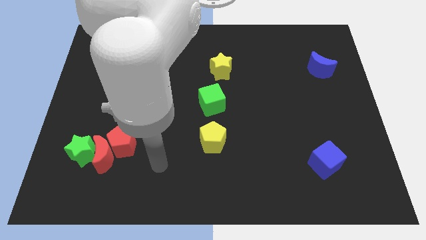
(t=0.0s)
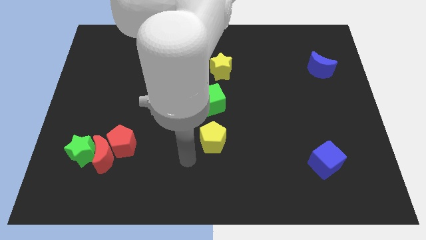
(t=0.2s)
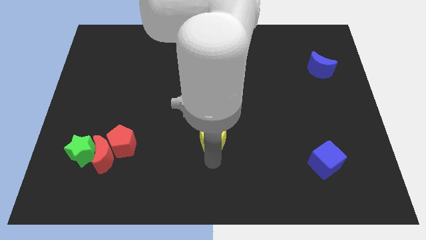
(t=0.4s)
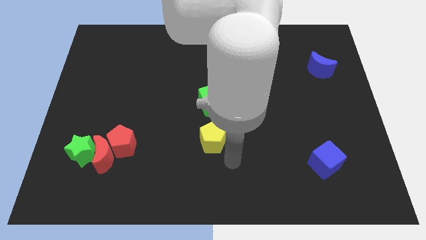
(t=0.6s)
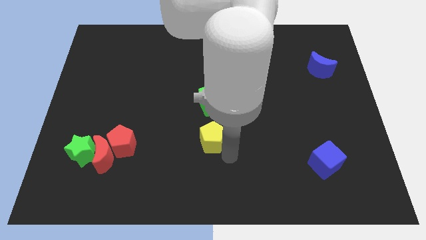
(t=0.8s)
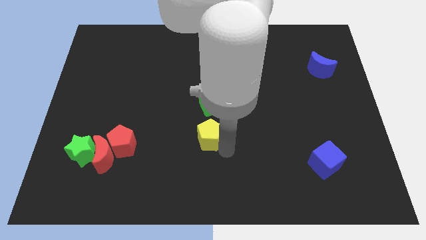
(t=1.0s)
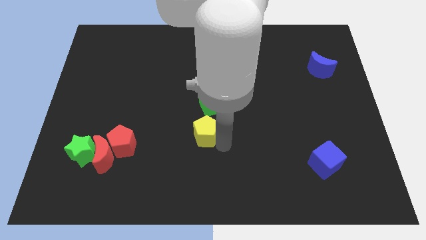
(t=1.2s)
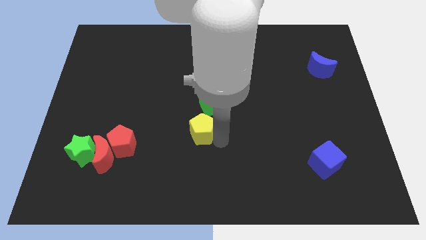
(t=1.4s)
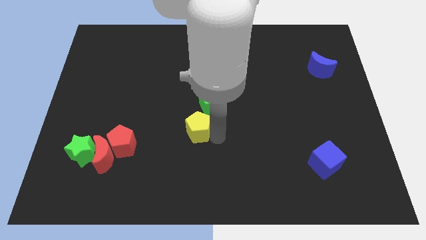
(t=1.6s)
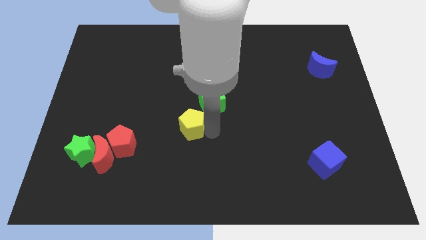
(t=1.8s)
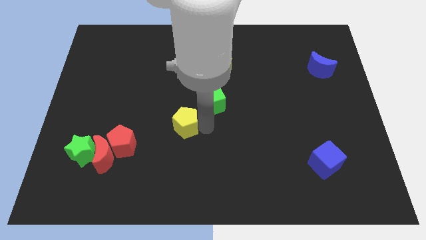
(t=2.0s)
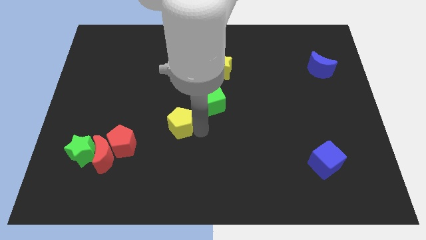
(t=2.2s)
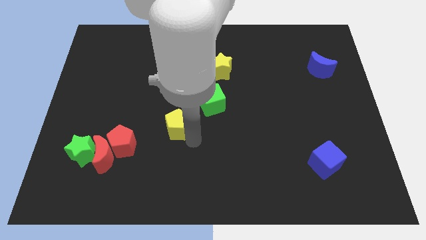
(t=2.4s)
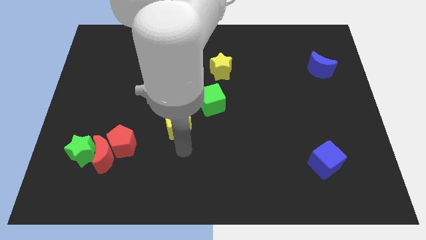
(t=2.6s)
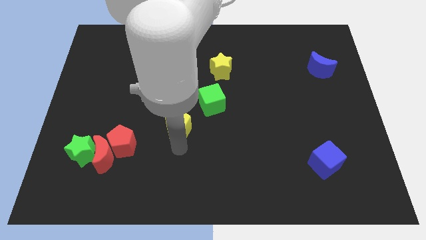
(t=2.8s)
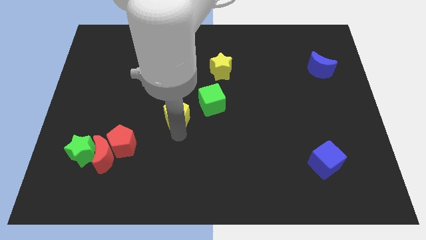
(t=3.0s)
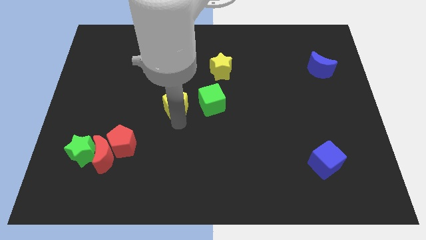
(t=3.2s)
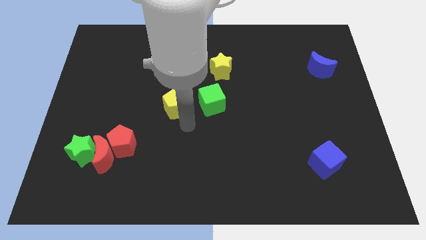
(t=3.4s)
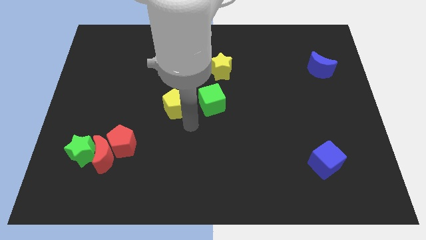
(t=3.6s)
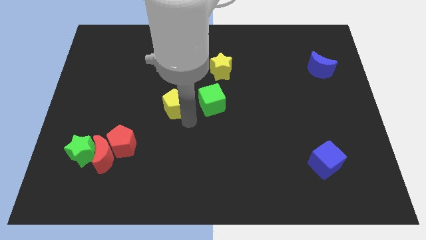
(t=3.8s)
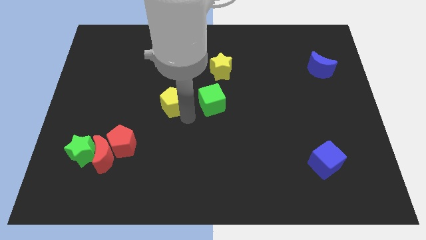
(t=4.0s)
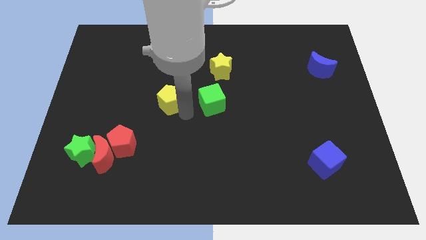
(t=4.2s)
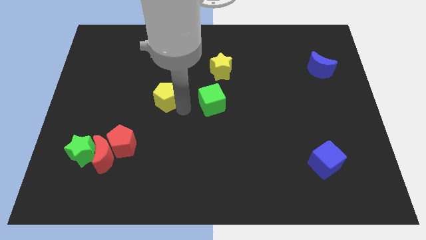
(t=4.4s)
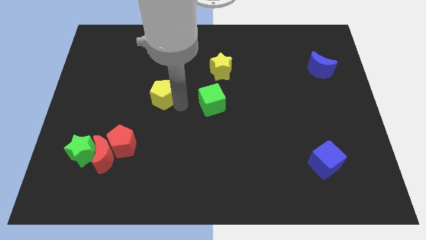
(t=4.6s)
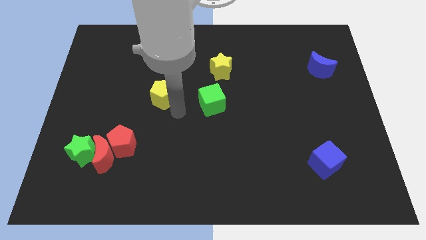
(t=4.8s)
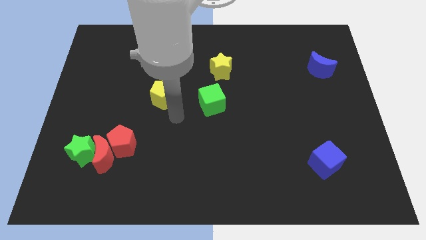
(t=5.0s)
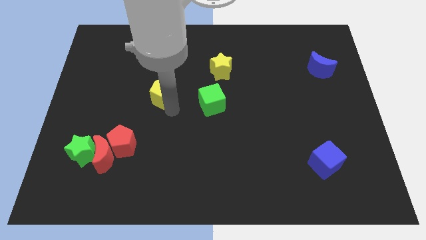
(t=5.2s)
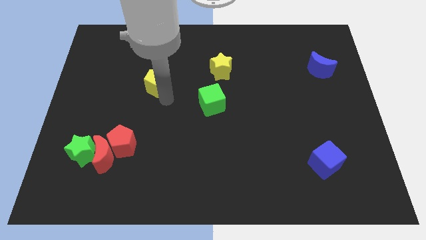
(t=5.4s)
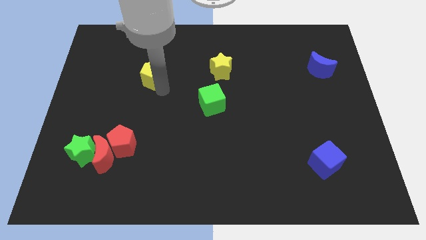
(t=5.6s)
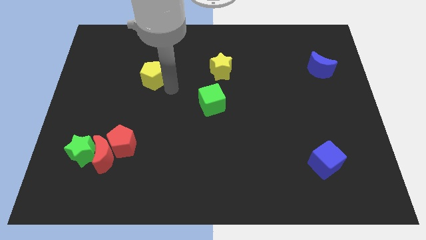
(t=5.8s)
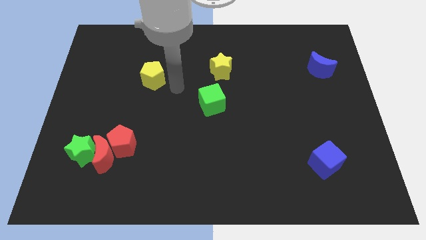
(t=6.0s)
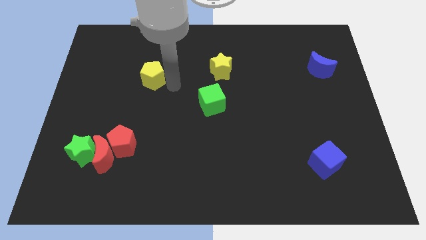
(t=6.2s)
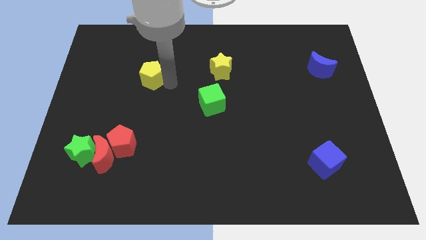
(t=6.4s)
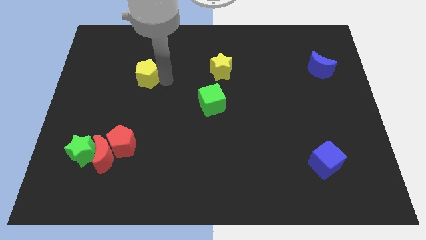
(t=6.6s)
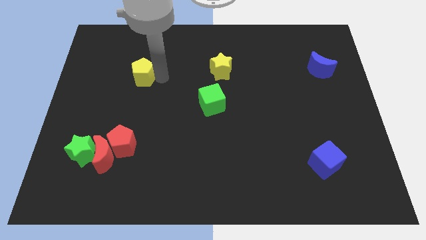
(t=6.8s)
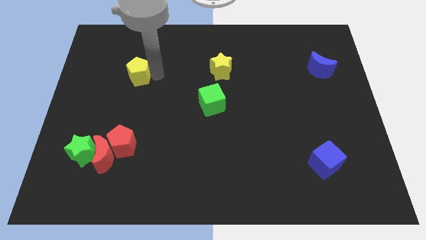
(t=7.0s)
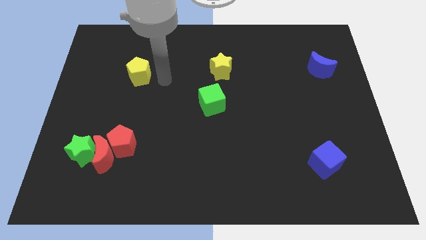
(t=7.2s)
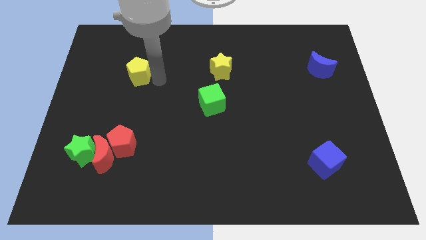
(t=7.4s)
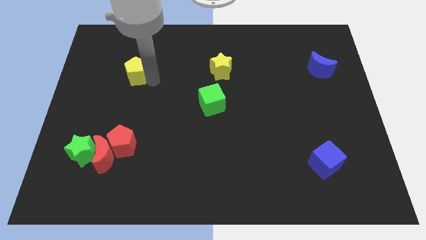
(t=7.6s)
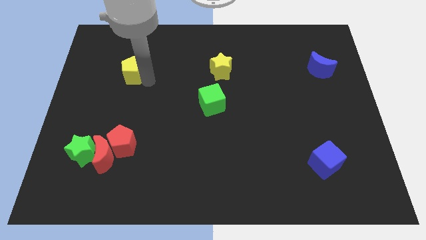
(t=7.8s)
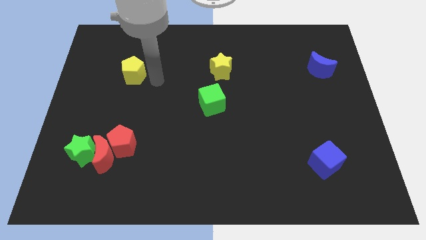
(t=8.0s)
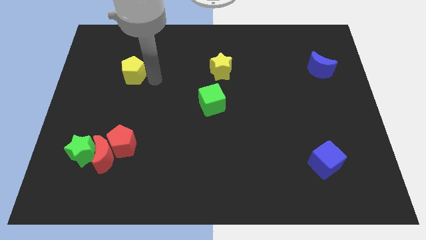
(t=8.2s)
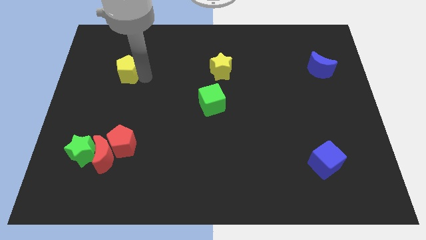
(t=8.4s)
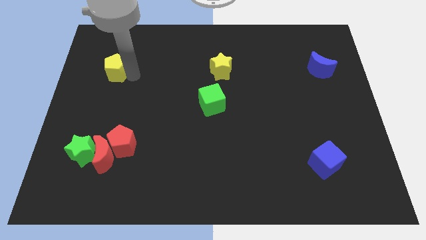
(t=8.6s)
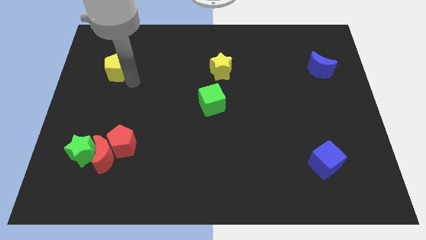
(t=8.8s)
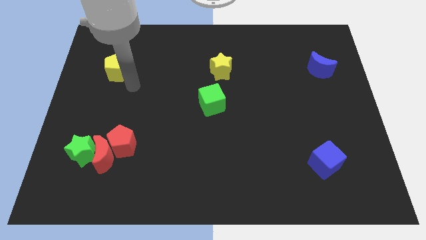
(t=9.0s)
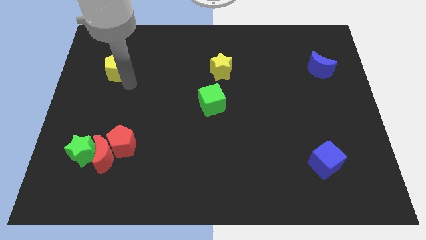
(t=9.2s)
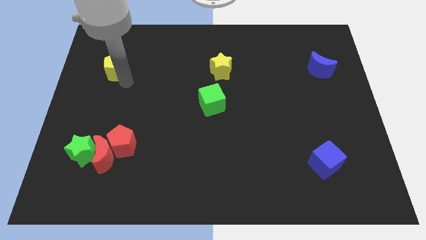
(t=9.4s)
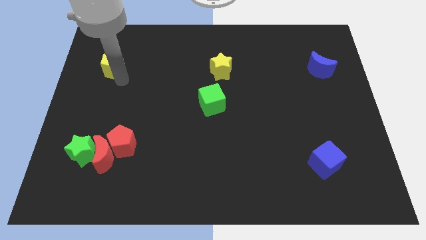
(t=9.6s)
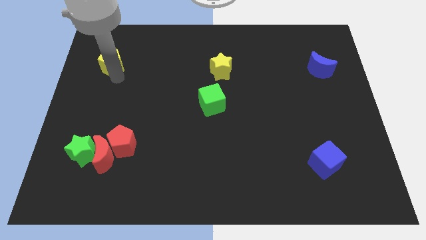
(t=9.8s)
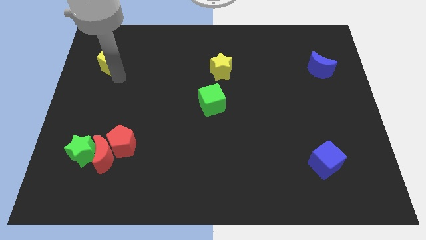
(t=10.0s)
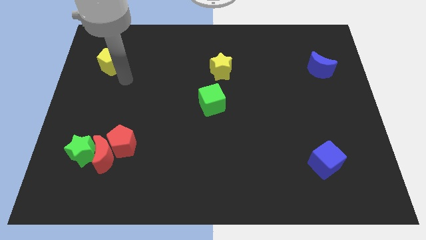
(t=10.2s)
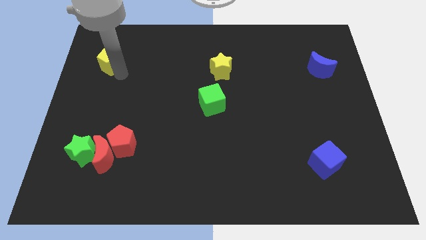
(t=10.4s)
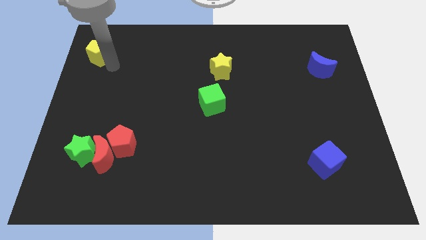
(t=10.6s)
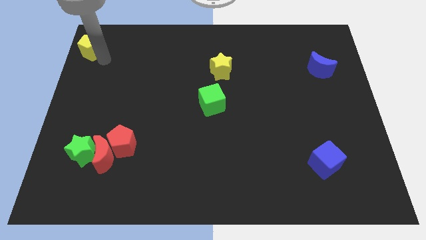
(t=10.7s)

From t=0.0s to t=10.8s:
move the yellow pentagon to the top left corner
